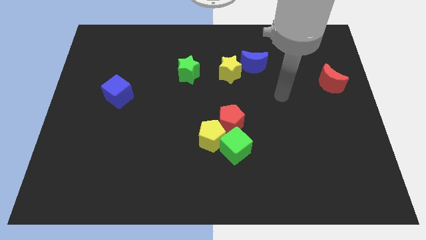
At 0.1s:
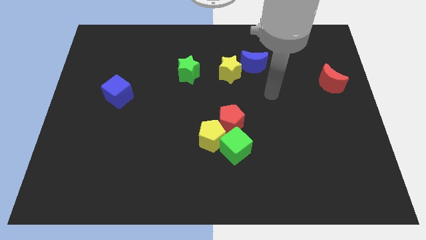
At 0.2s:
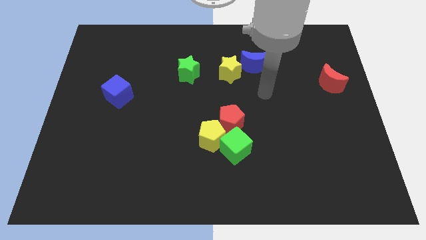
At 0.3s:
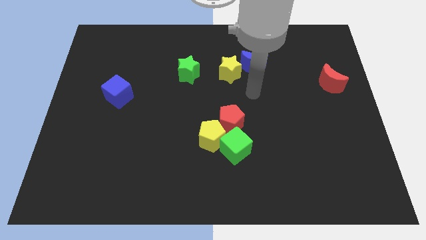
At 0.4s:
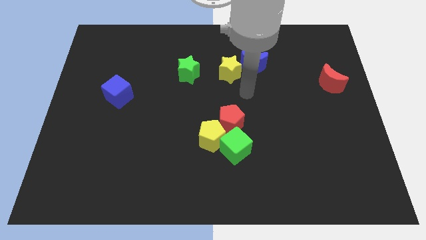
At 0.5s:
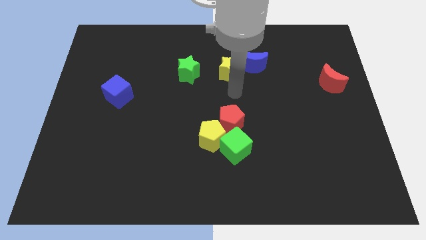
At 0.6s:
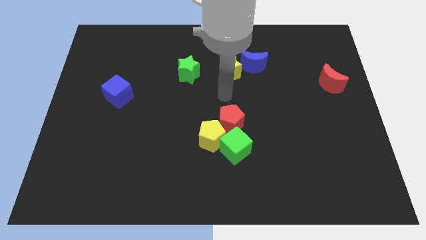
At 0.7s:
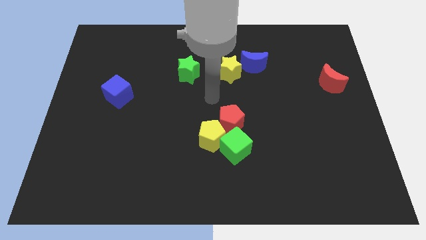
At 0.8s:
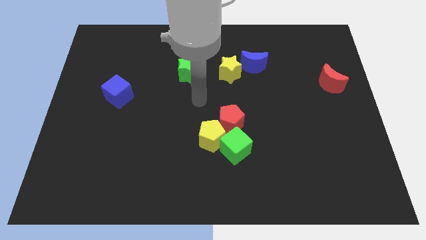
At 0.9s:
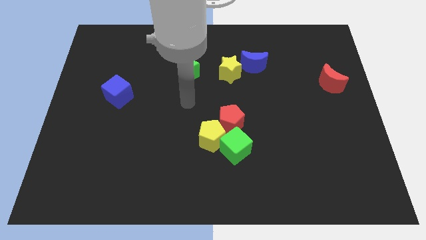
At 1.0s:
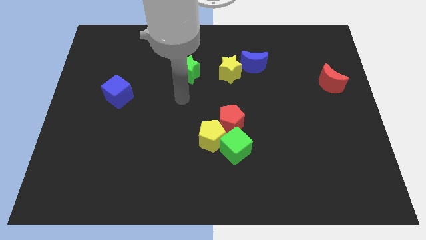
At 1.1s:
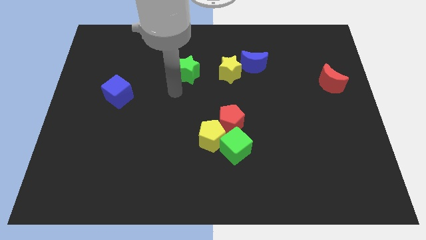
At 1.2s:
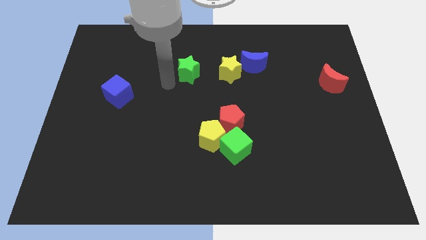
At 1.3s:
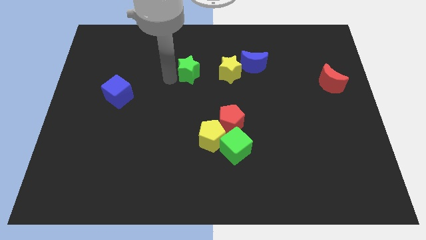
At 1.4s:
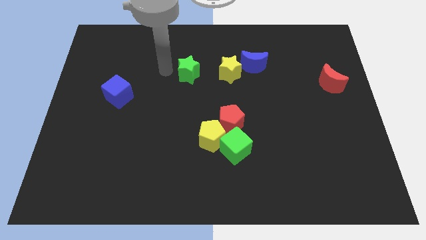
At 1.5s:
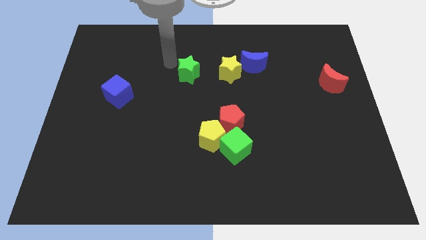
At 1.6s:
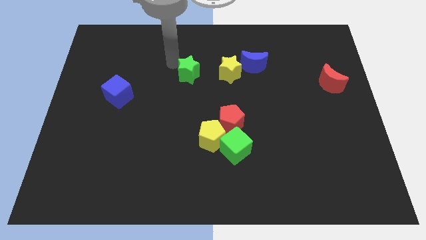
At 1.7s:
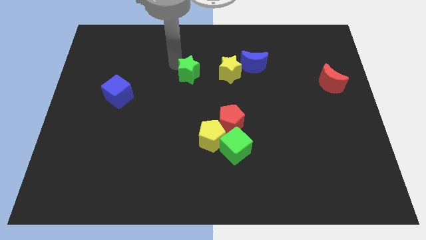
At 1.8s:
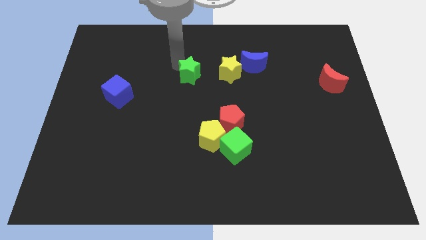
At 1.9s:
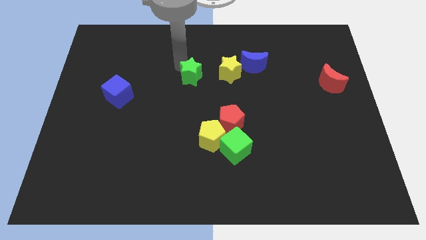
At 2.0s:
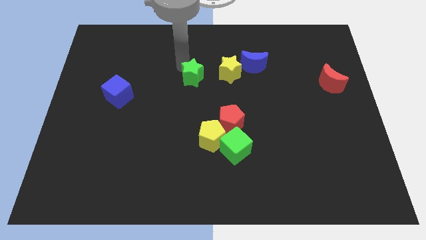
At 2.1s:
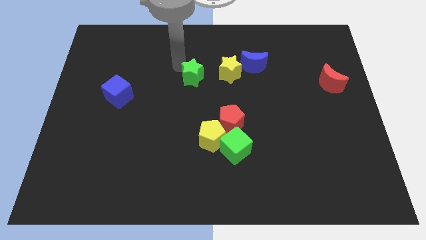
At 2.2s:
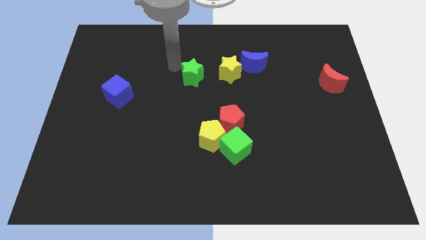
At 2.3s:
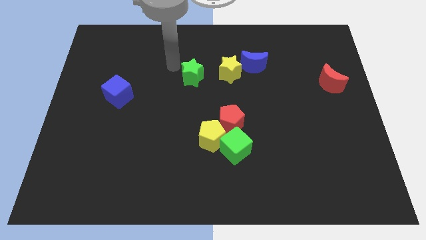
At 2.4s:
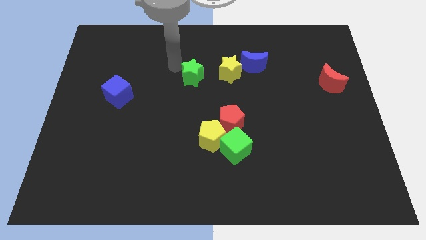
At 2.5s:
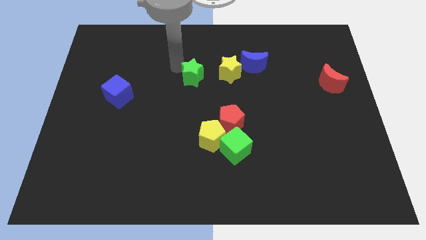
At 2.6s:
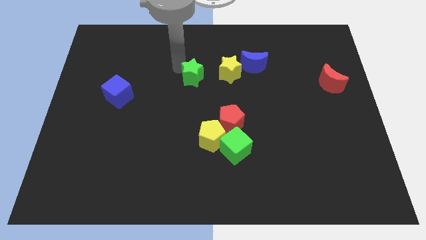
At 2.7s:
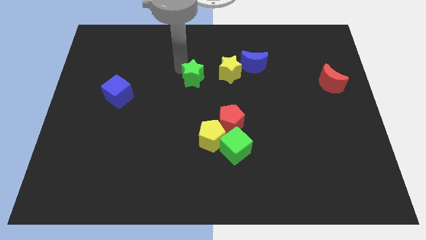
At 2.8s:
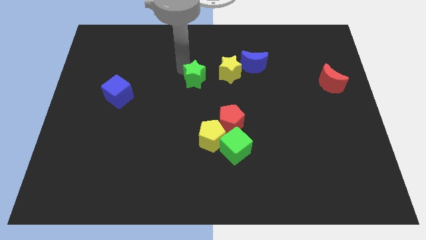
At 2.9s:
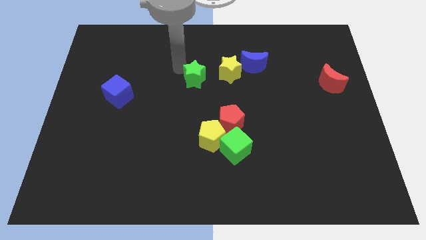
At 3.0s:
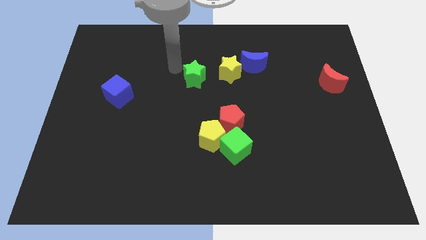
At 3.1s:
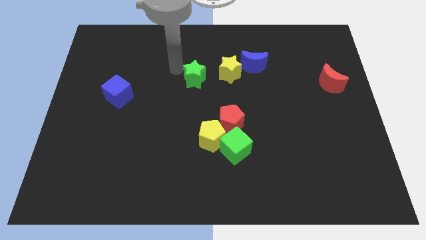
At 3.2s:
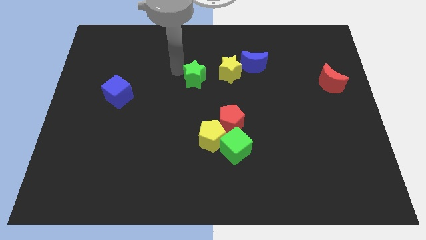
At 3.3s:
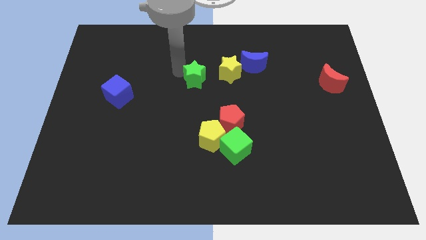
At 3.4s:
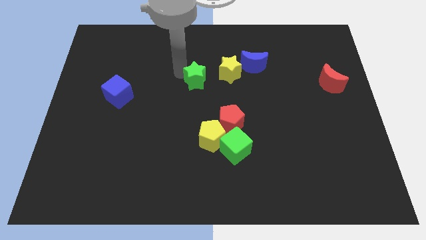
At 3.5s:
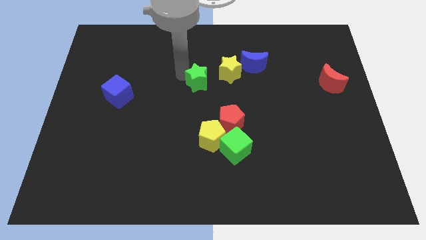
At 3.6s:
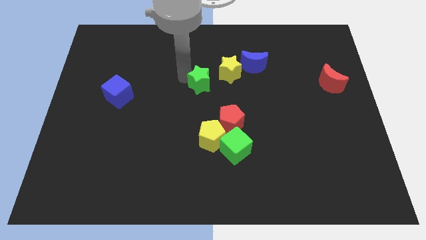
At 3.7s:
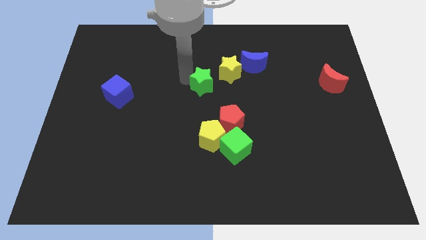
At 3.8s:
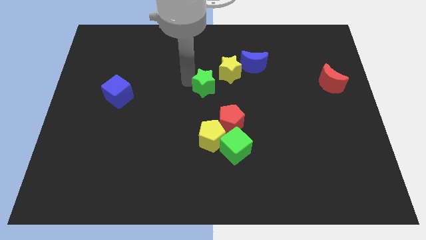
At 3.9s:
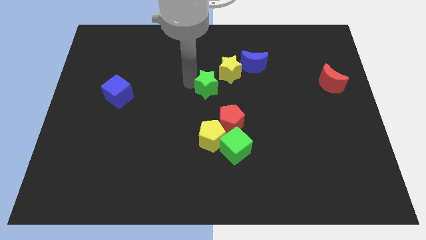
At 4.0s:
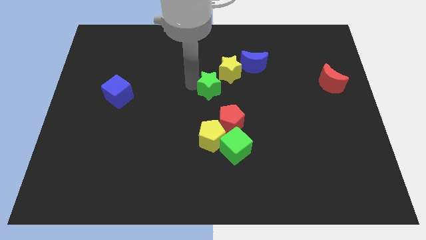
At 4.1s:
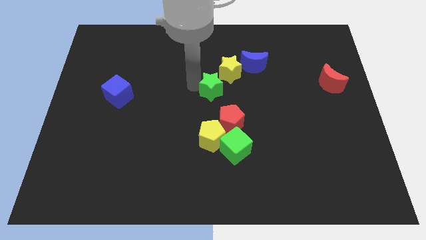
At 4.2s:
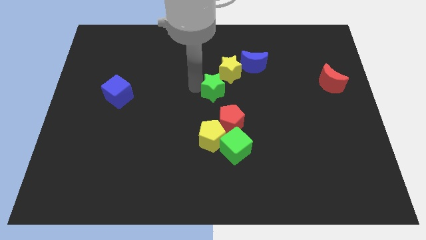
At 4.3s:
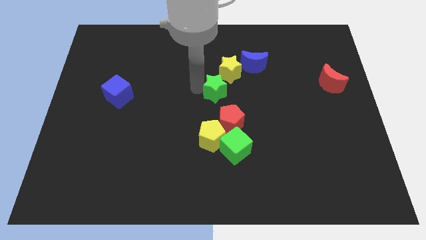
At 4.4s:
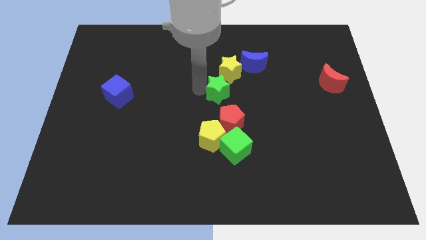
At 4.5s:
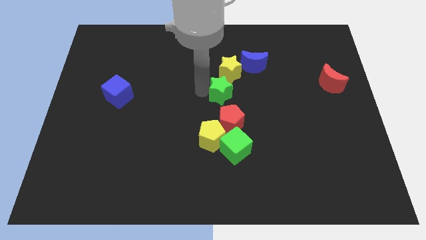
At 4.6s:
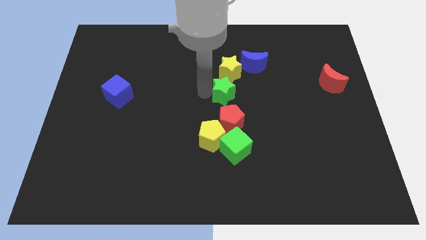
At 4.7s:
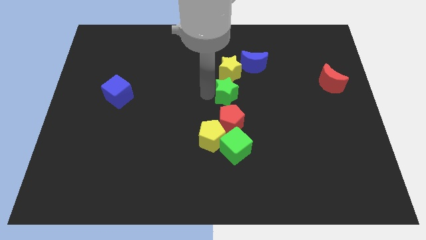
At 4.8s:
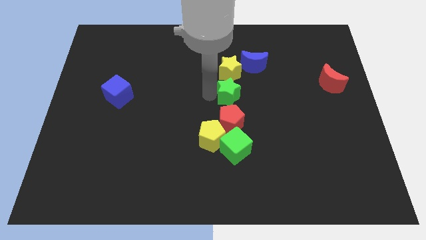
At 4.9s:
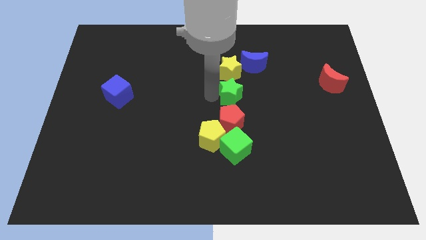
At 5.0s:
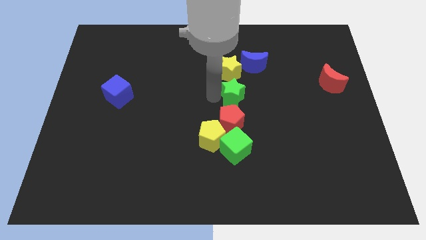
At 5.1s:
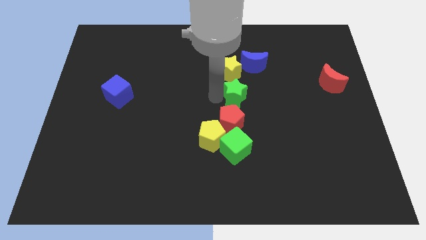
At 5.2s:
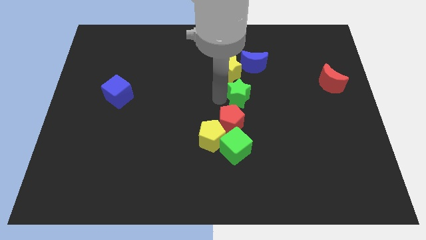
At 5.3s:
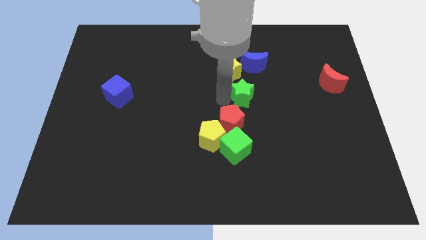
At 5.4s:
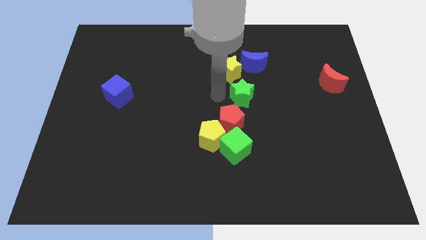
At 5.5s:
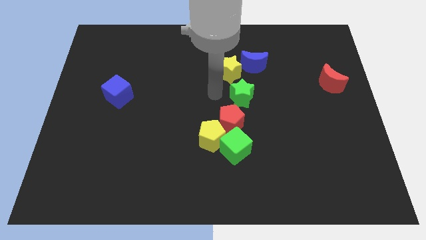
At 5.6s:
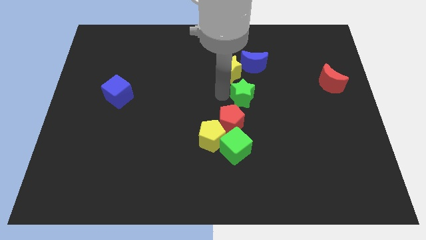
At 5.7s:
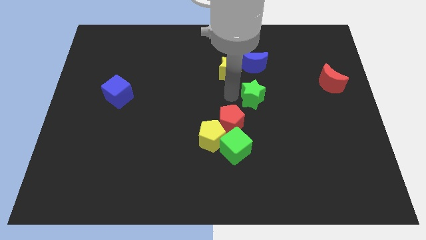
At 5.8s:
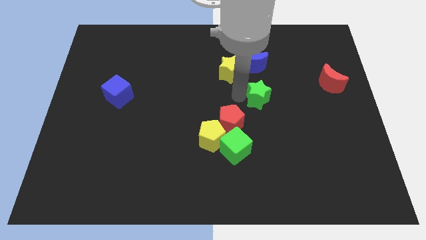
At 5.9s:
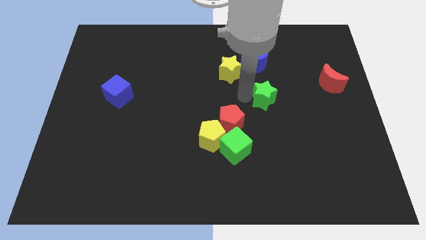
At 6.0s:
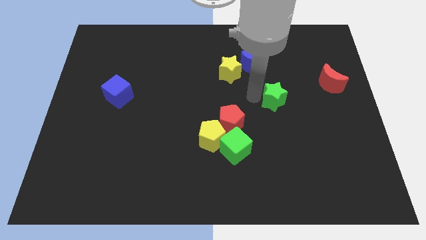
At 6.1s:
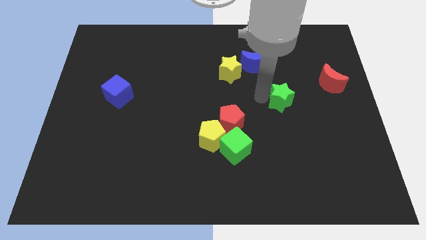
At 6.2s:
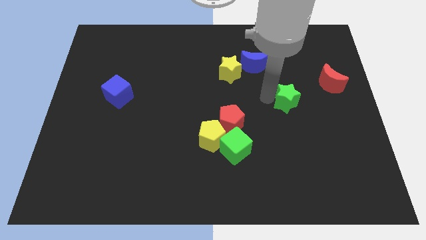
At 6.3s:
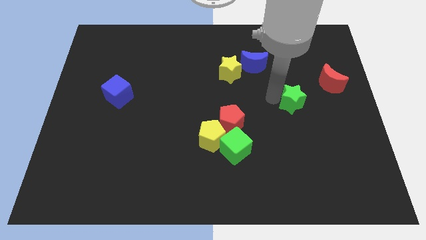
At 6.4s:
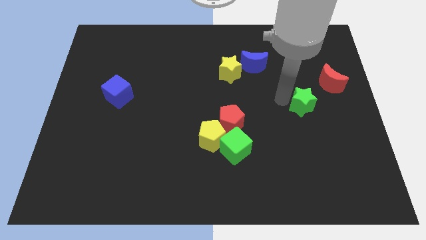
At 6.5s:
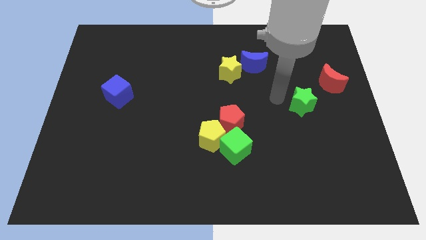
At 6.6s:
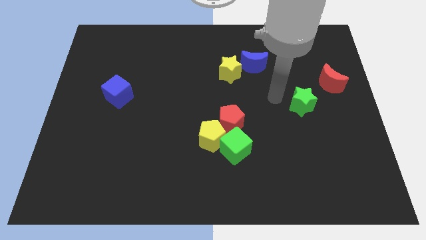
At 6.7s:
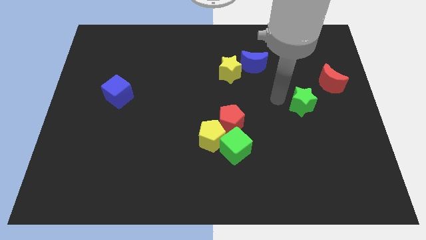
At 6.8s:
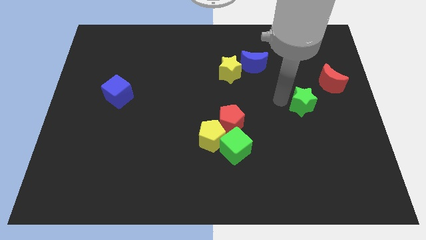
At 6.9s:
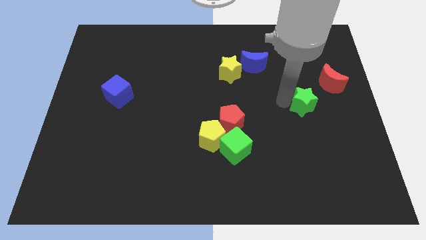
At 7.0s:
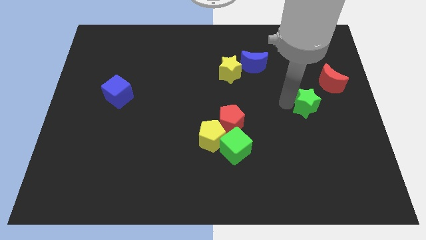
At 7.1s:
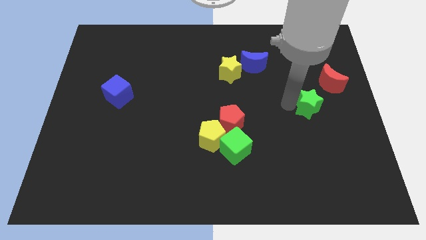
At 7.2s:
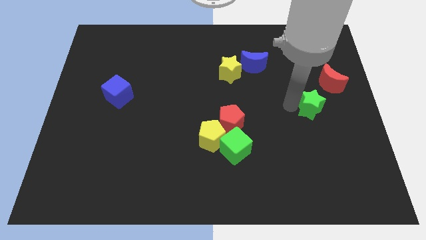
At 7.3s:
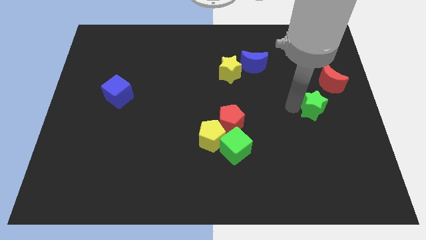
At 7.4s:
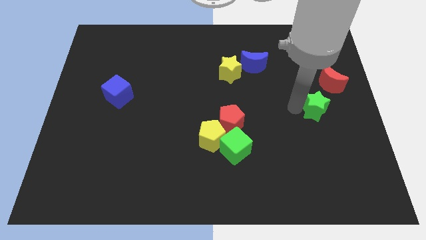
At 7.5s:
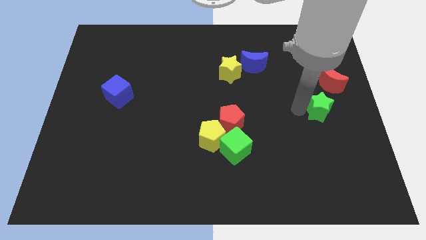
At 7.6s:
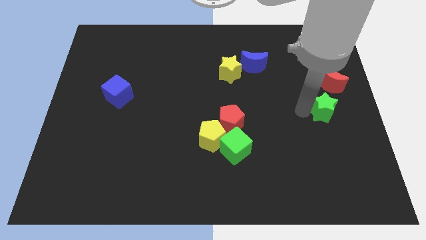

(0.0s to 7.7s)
put the green star to the right side
